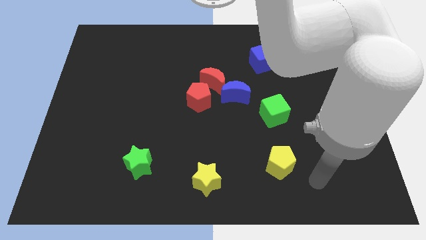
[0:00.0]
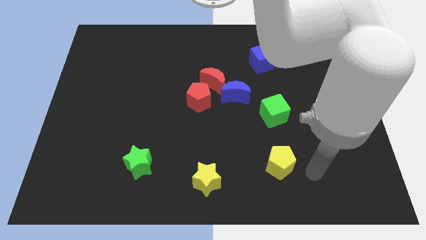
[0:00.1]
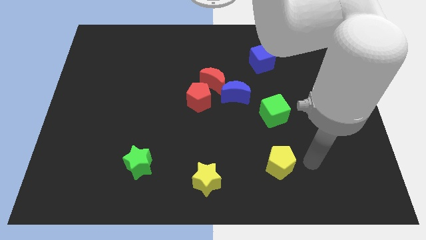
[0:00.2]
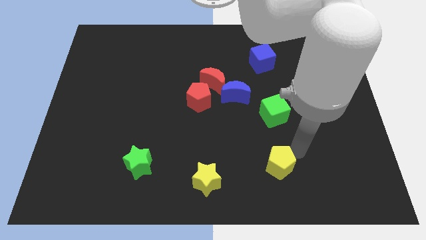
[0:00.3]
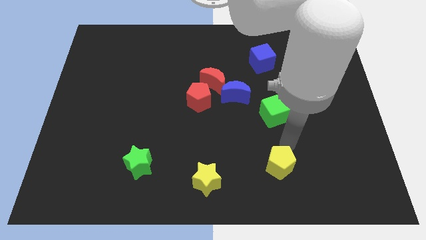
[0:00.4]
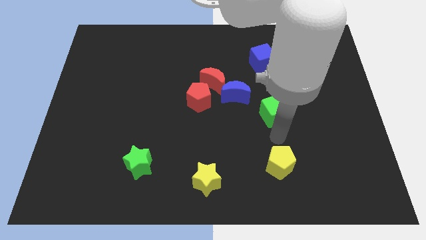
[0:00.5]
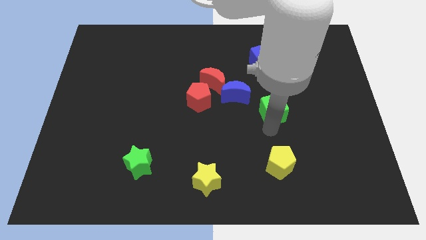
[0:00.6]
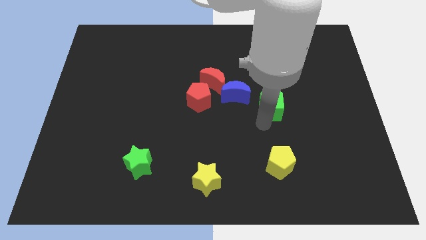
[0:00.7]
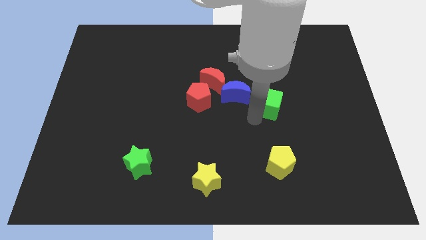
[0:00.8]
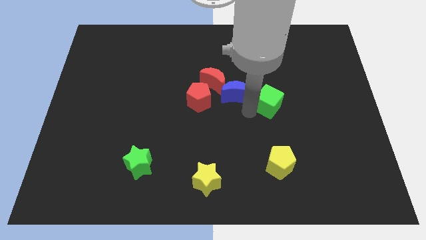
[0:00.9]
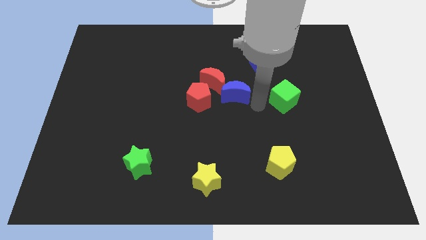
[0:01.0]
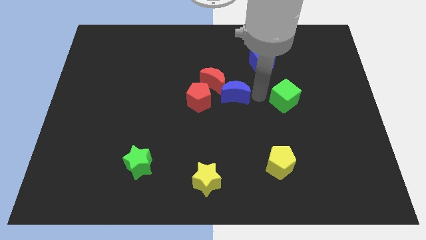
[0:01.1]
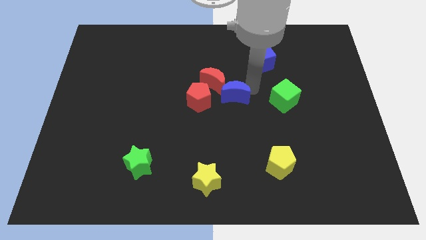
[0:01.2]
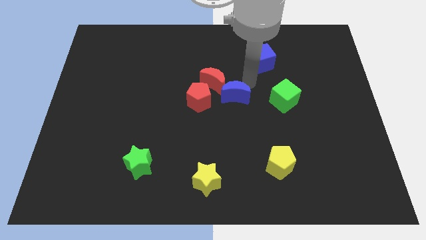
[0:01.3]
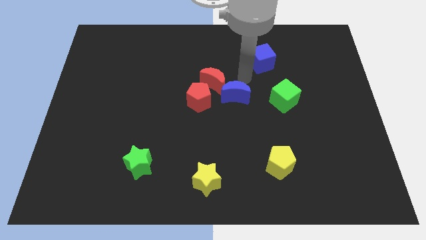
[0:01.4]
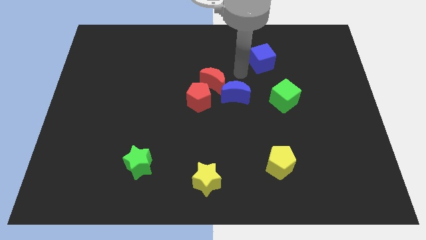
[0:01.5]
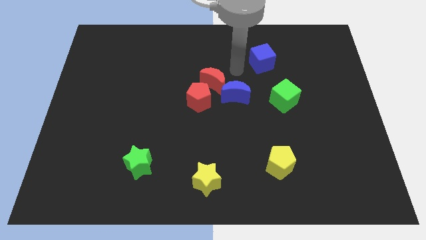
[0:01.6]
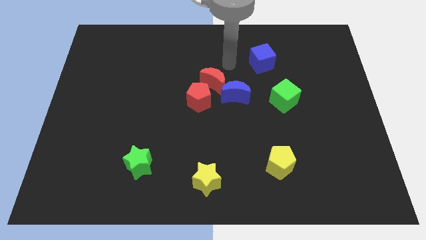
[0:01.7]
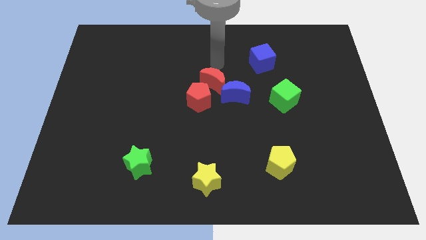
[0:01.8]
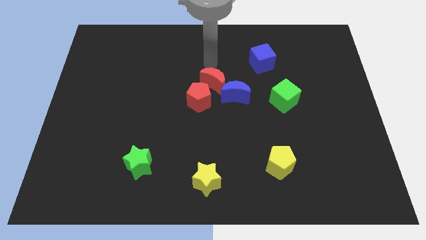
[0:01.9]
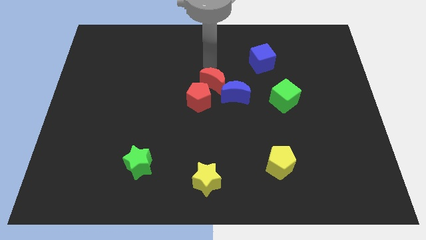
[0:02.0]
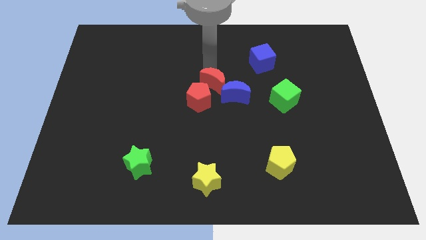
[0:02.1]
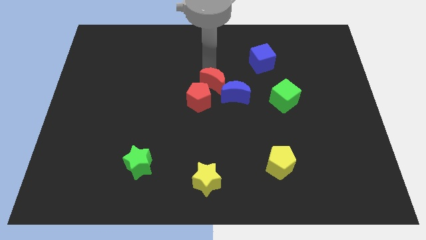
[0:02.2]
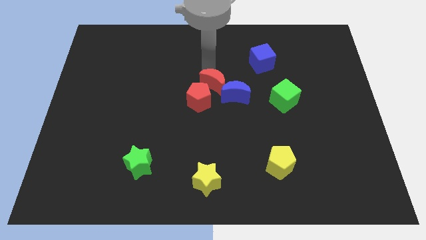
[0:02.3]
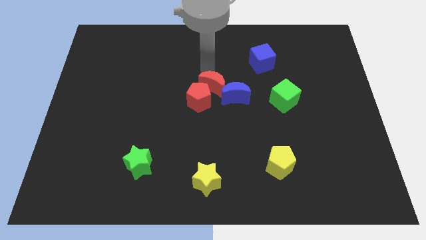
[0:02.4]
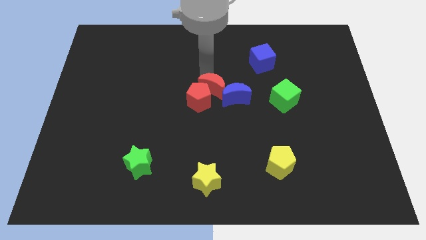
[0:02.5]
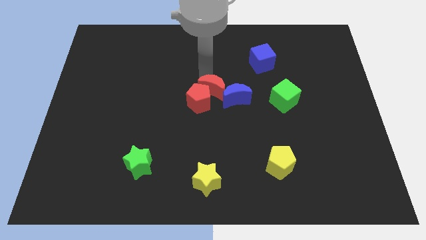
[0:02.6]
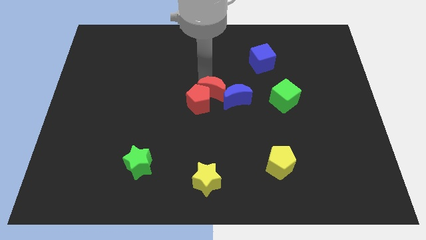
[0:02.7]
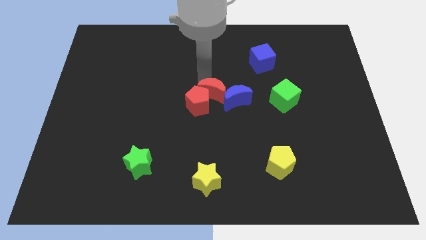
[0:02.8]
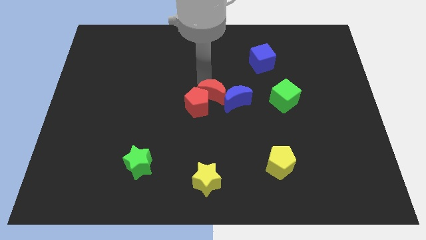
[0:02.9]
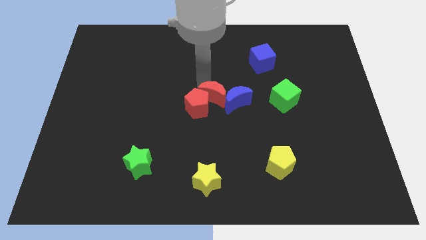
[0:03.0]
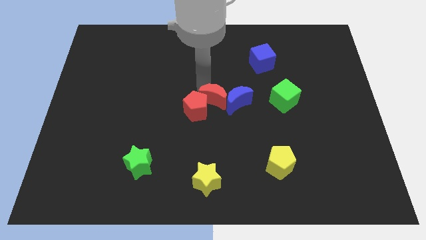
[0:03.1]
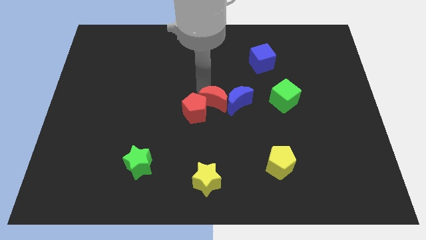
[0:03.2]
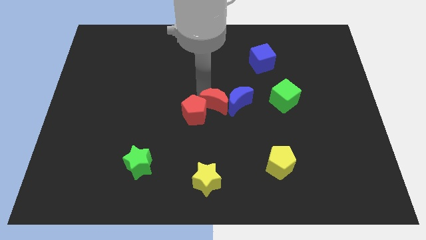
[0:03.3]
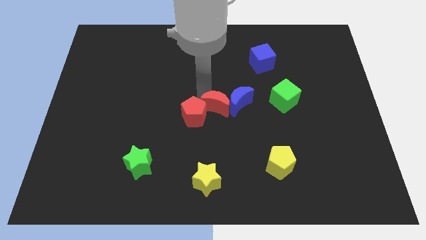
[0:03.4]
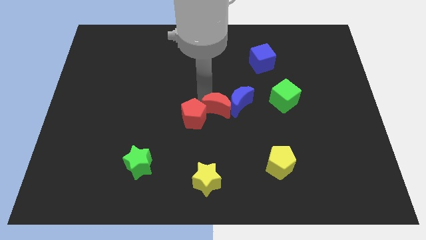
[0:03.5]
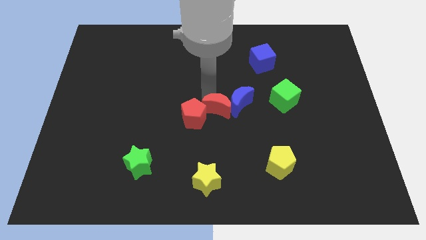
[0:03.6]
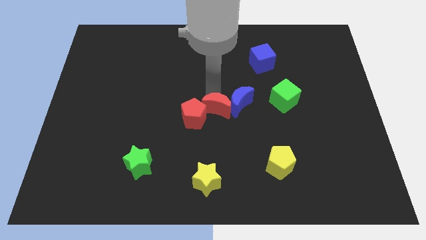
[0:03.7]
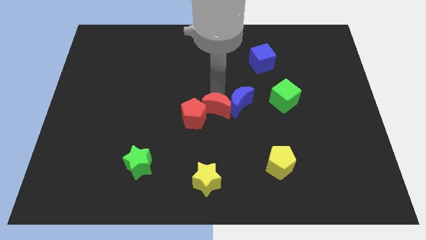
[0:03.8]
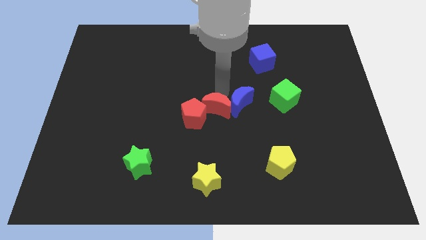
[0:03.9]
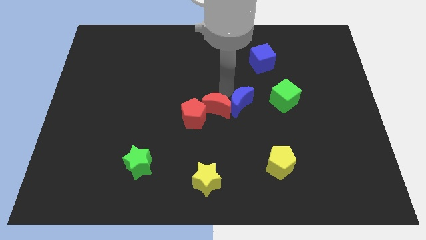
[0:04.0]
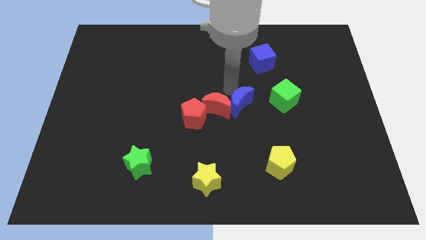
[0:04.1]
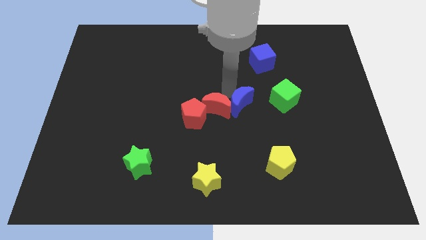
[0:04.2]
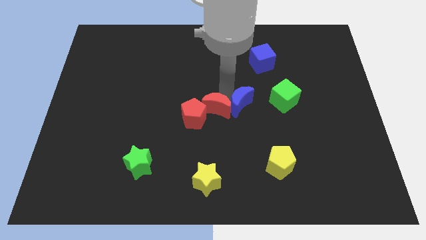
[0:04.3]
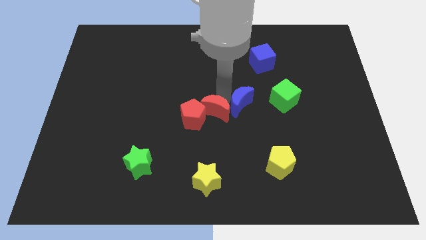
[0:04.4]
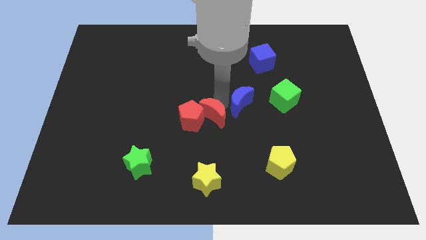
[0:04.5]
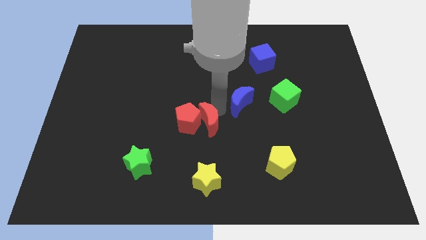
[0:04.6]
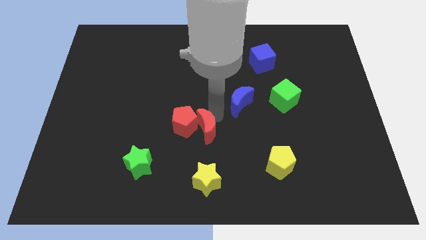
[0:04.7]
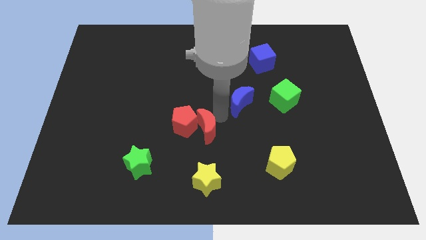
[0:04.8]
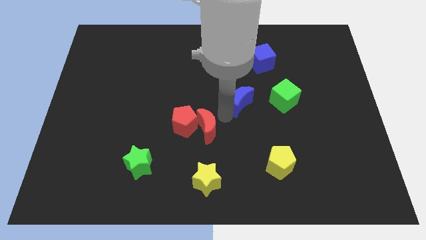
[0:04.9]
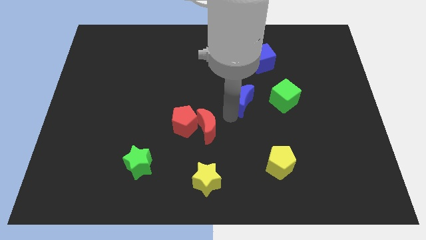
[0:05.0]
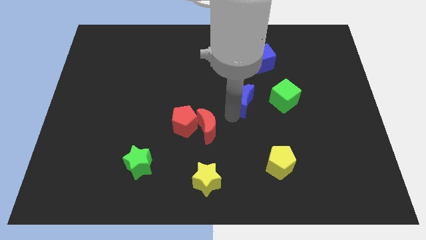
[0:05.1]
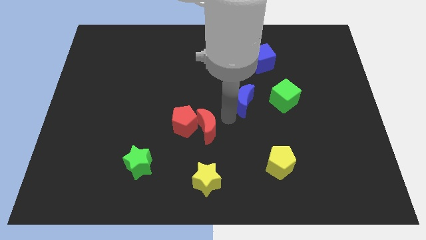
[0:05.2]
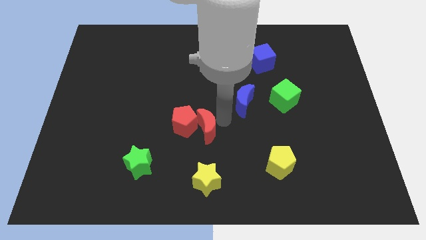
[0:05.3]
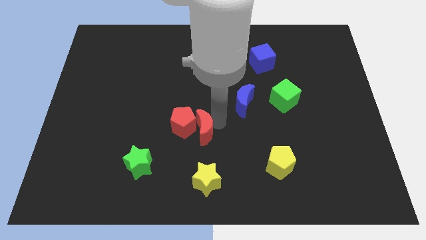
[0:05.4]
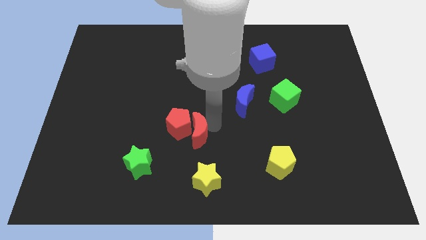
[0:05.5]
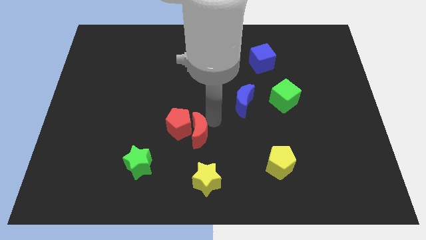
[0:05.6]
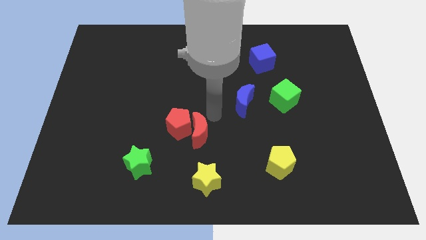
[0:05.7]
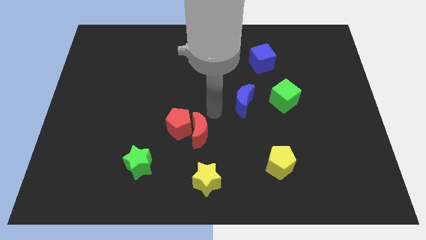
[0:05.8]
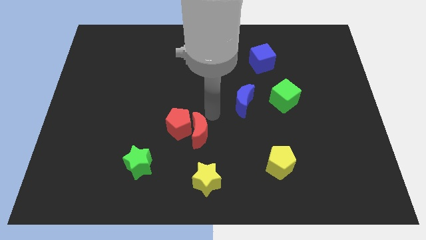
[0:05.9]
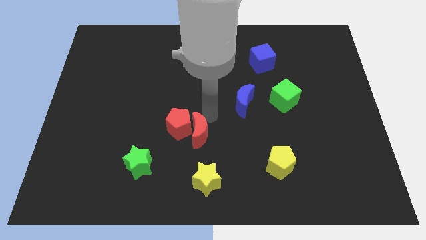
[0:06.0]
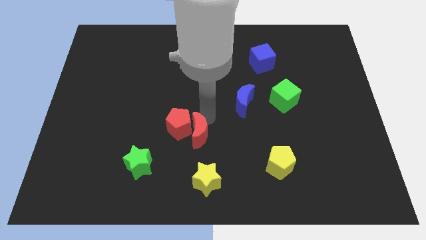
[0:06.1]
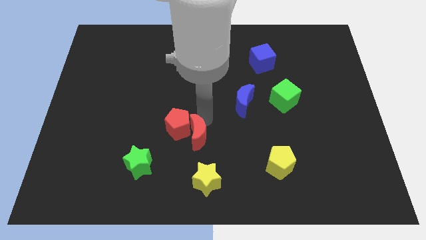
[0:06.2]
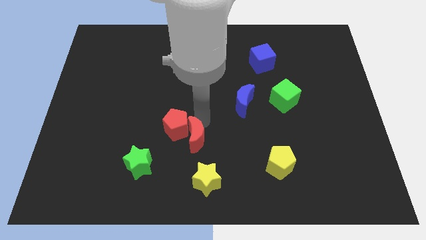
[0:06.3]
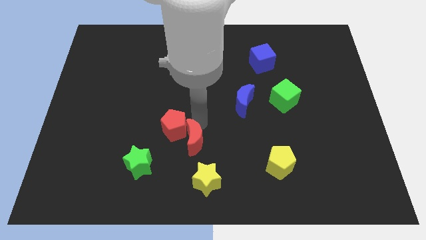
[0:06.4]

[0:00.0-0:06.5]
move the red moon diagonally up and to the left of the yellow star

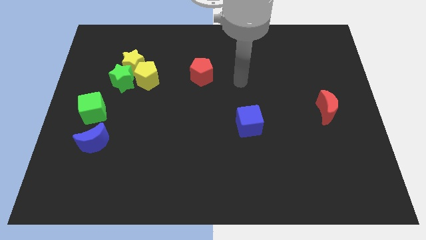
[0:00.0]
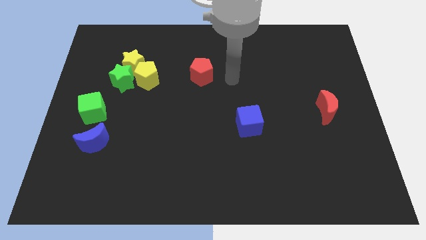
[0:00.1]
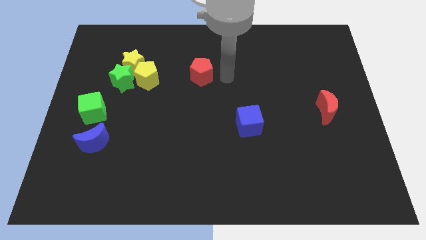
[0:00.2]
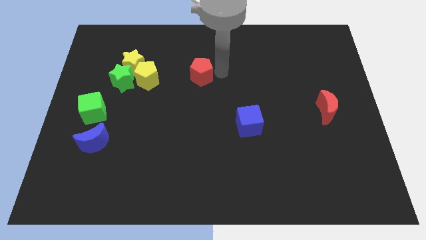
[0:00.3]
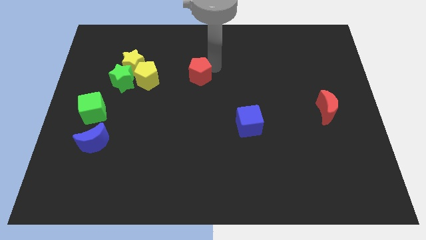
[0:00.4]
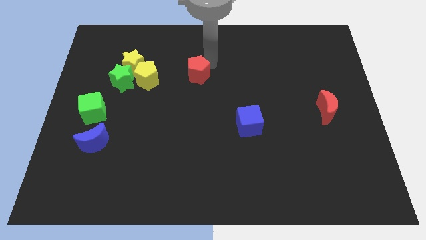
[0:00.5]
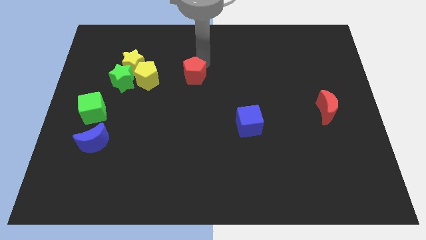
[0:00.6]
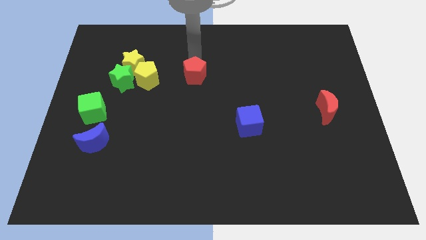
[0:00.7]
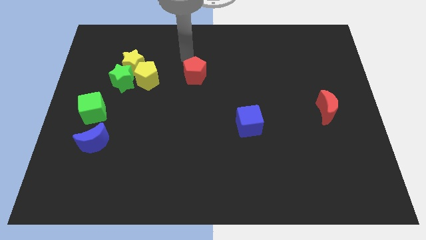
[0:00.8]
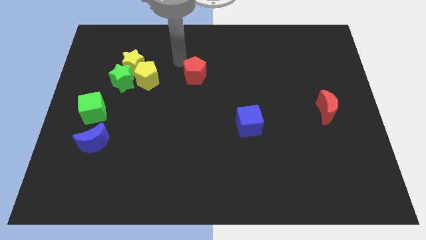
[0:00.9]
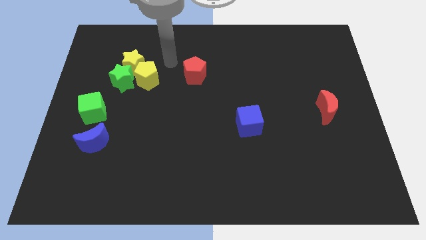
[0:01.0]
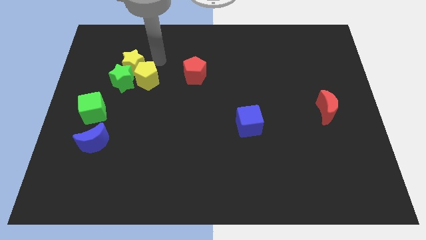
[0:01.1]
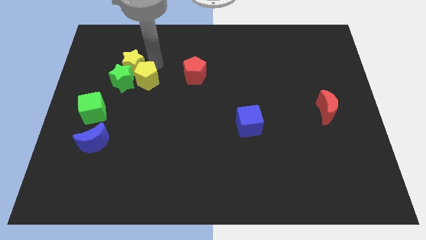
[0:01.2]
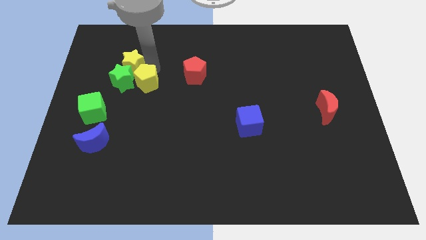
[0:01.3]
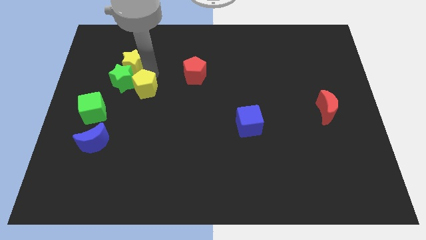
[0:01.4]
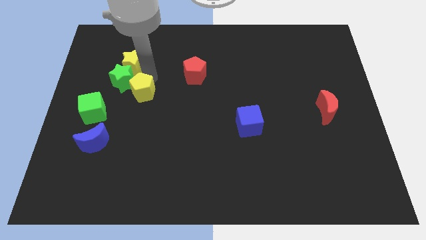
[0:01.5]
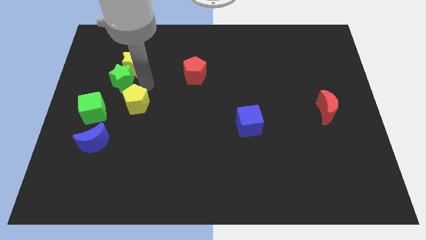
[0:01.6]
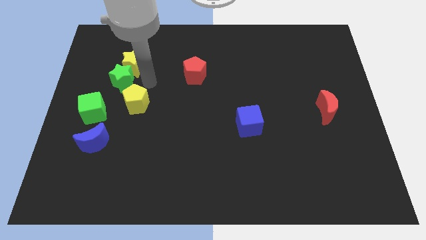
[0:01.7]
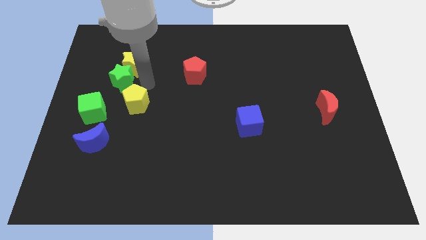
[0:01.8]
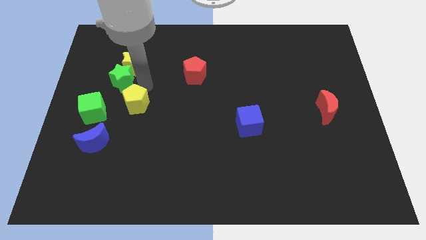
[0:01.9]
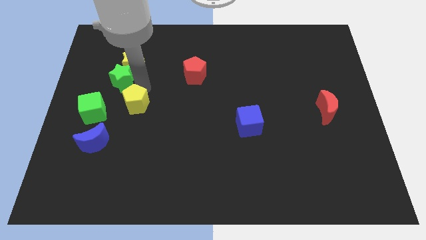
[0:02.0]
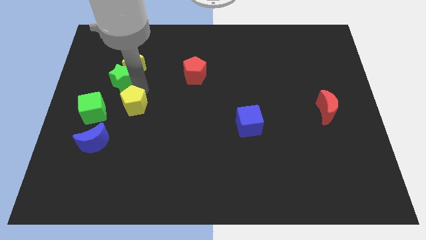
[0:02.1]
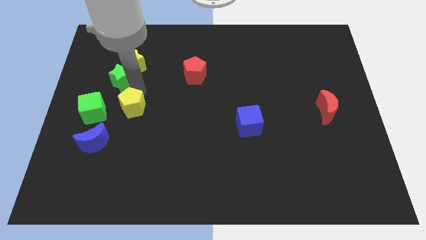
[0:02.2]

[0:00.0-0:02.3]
push the yellow pentagon to the top right side of the blue moon
